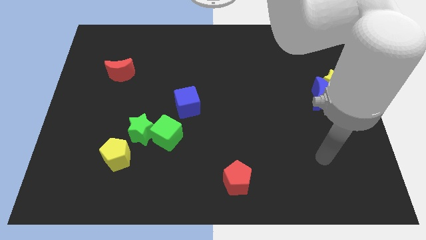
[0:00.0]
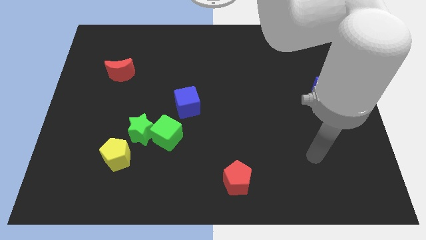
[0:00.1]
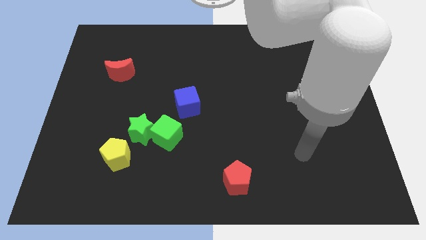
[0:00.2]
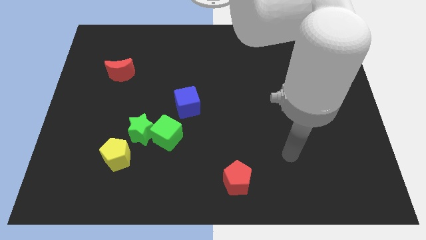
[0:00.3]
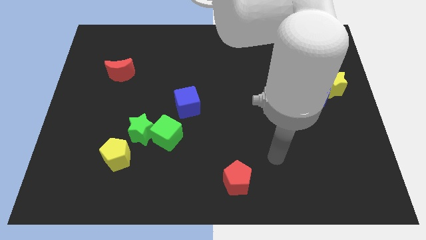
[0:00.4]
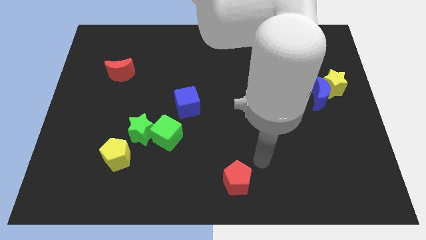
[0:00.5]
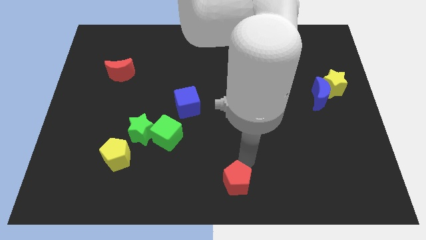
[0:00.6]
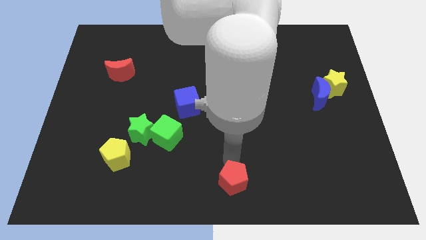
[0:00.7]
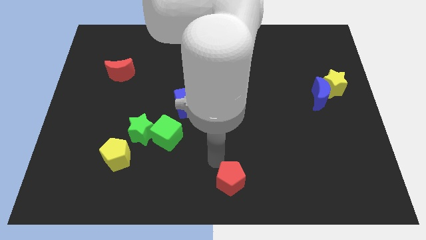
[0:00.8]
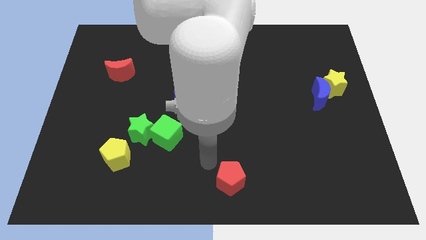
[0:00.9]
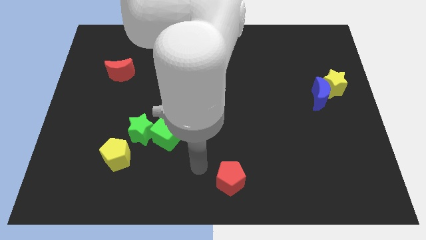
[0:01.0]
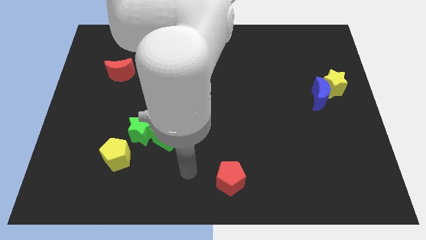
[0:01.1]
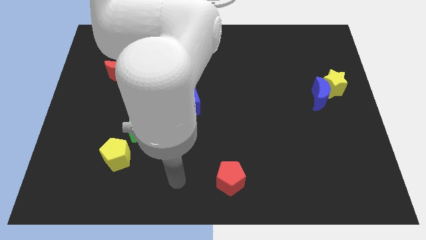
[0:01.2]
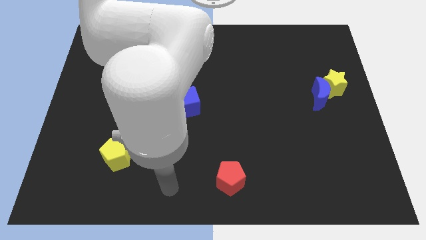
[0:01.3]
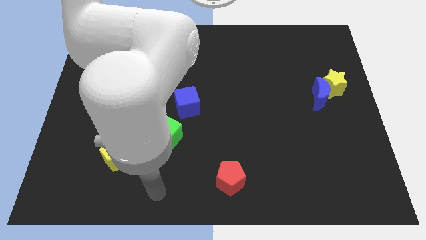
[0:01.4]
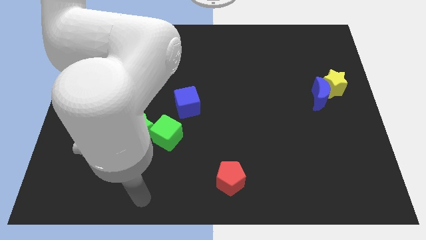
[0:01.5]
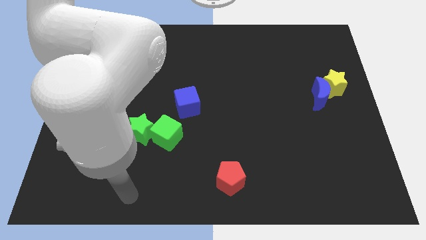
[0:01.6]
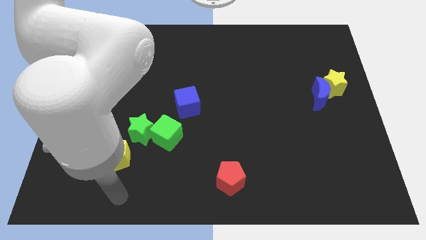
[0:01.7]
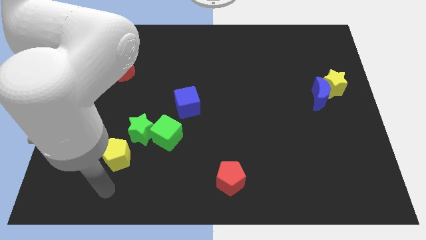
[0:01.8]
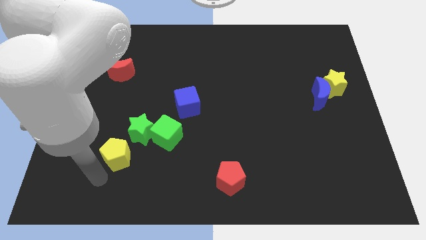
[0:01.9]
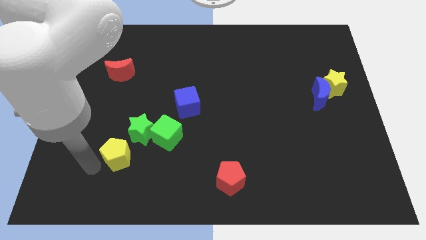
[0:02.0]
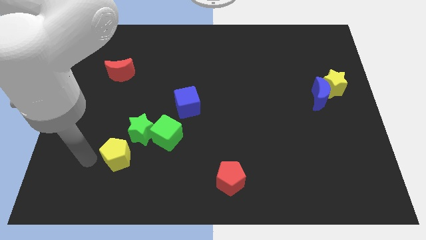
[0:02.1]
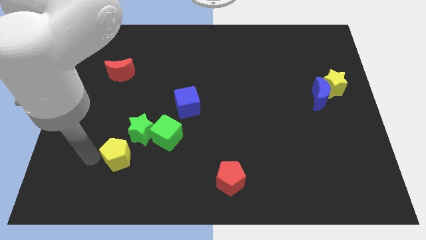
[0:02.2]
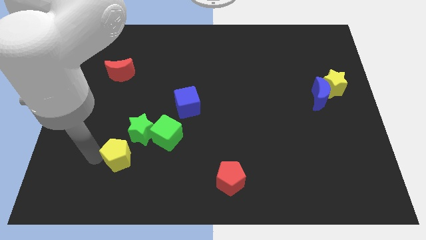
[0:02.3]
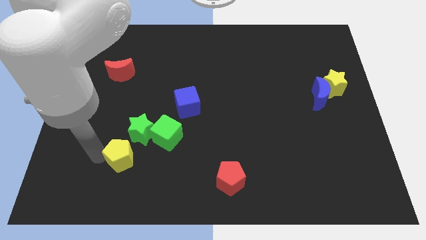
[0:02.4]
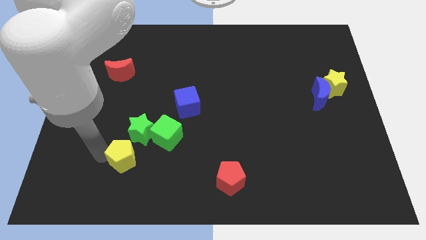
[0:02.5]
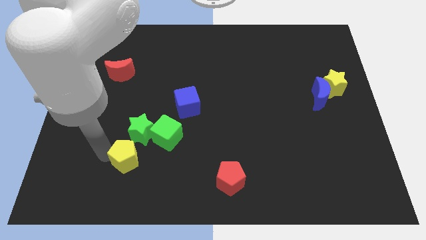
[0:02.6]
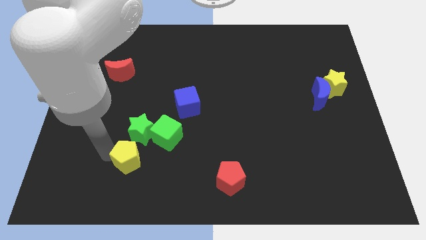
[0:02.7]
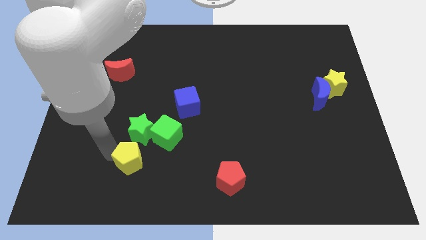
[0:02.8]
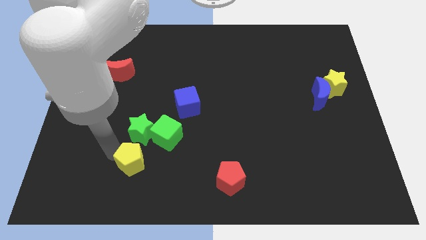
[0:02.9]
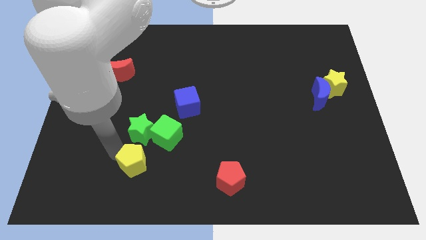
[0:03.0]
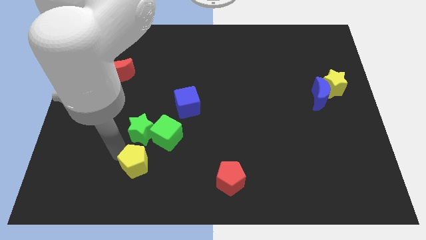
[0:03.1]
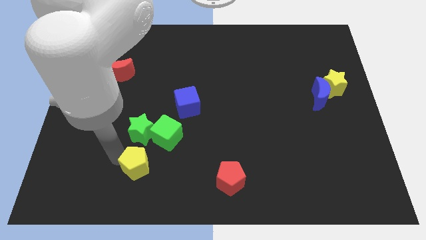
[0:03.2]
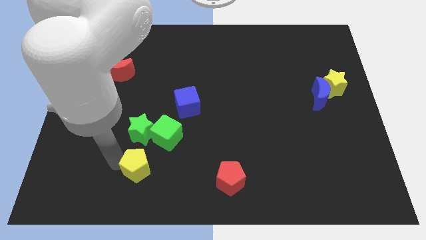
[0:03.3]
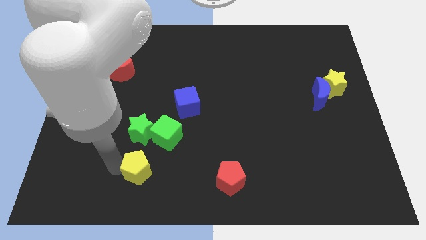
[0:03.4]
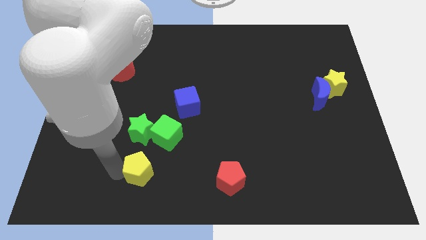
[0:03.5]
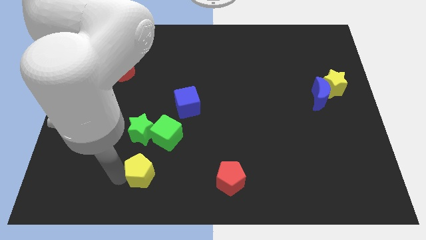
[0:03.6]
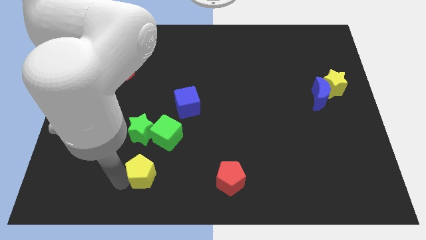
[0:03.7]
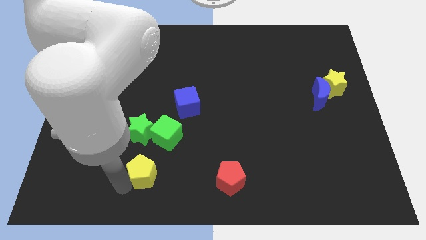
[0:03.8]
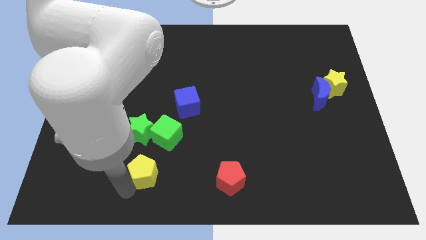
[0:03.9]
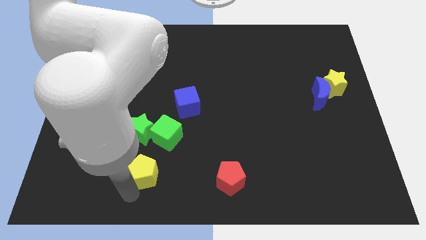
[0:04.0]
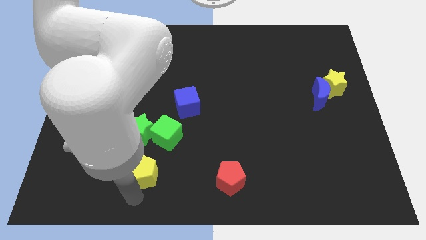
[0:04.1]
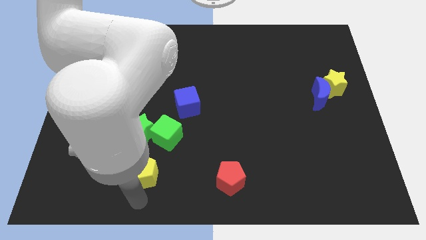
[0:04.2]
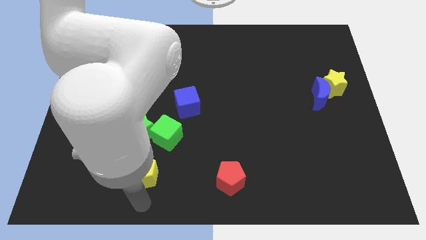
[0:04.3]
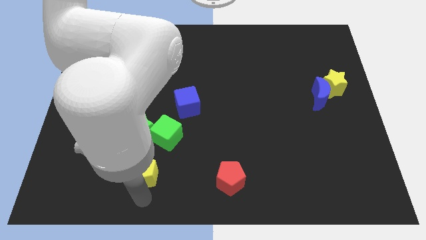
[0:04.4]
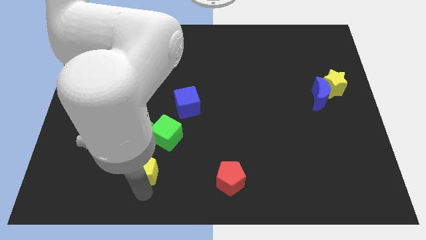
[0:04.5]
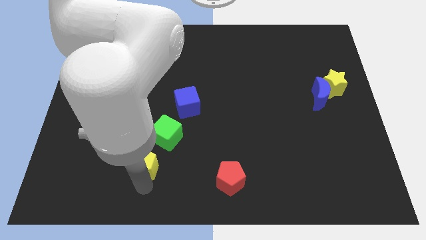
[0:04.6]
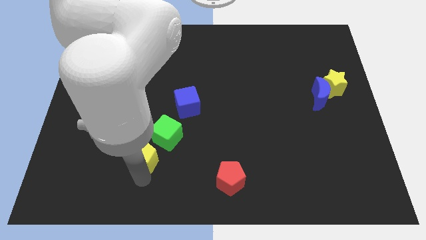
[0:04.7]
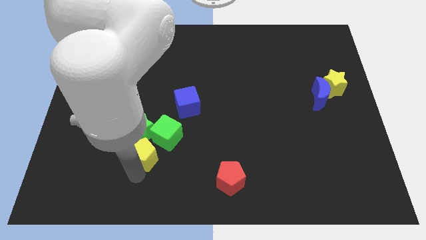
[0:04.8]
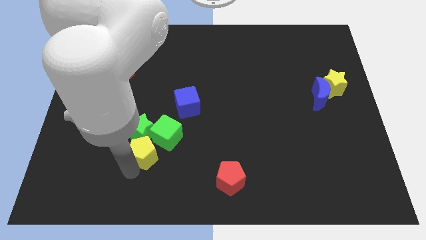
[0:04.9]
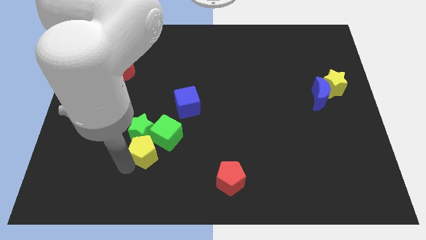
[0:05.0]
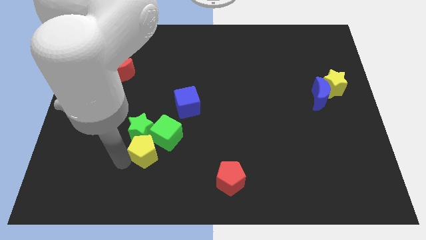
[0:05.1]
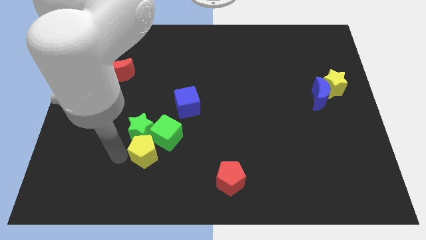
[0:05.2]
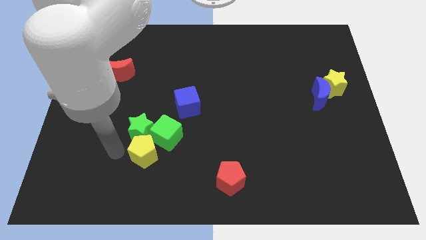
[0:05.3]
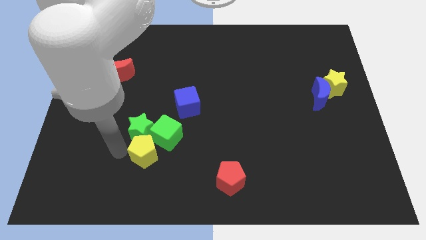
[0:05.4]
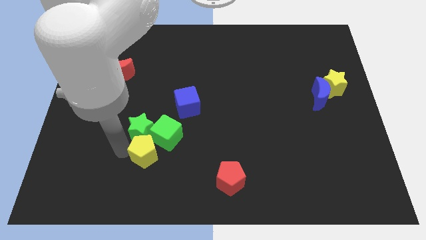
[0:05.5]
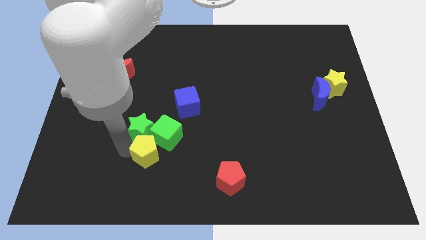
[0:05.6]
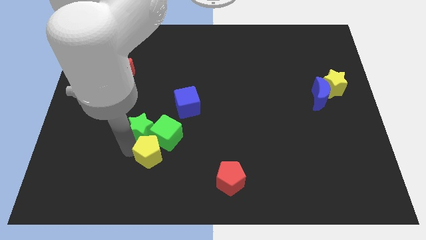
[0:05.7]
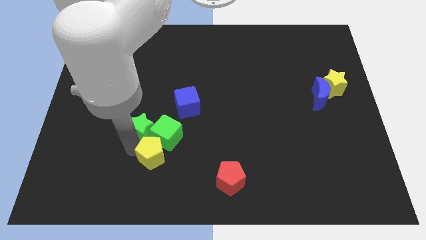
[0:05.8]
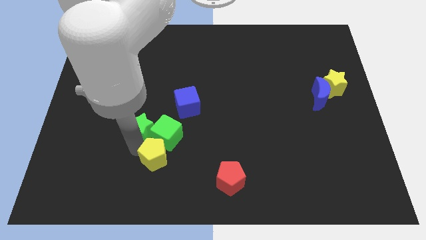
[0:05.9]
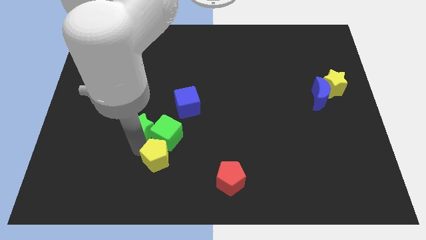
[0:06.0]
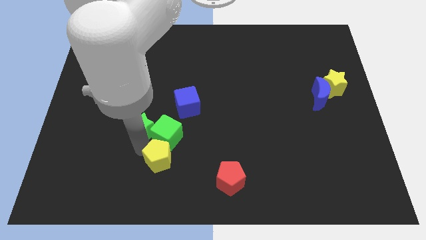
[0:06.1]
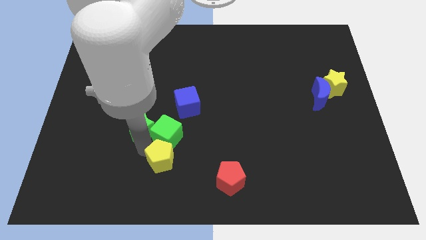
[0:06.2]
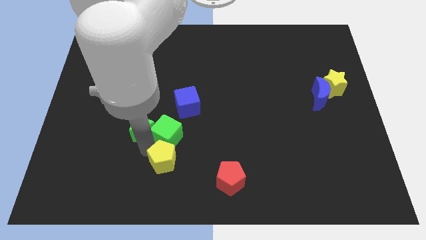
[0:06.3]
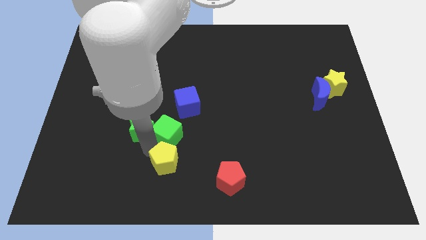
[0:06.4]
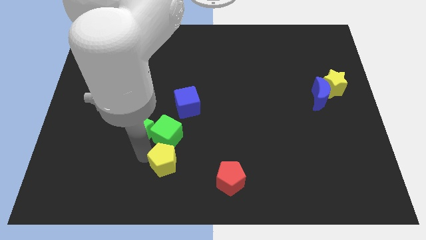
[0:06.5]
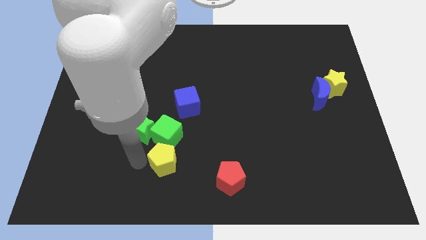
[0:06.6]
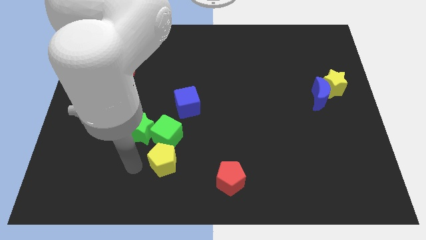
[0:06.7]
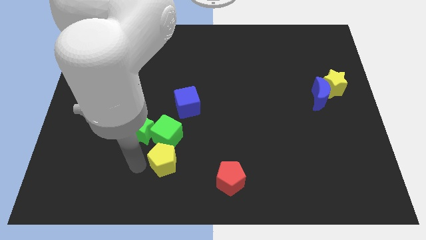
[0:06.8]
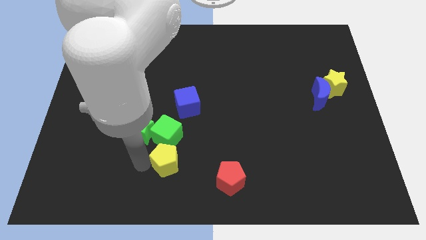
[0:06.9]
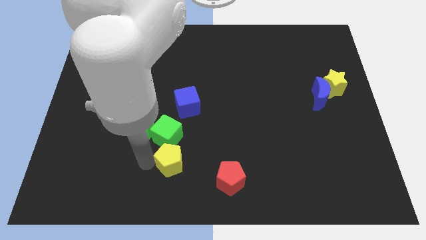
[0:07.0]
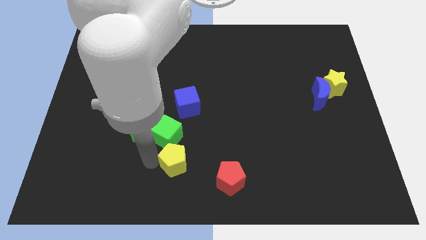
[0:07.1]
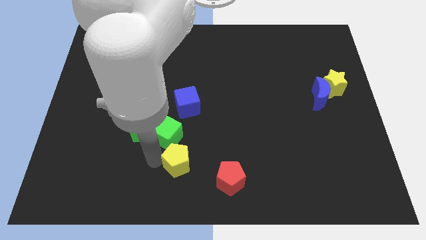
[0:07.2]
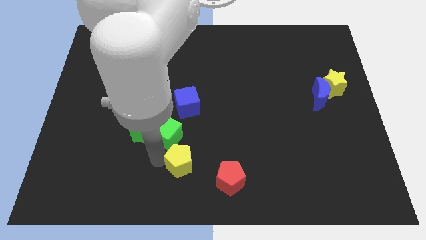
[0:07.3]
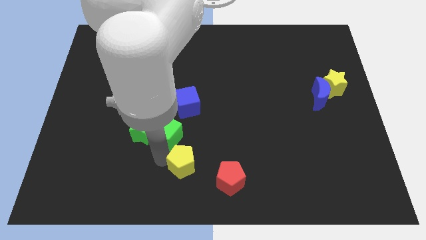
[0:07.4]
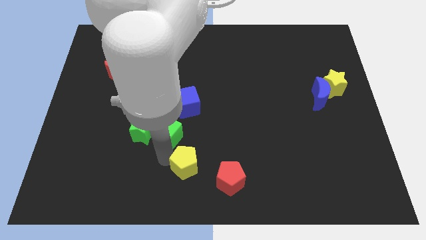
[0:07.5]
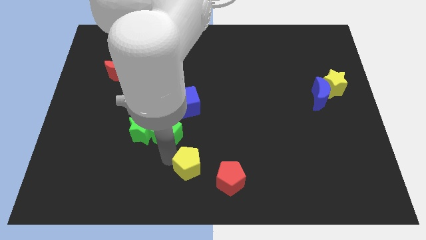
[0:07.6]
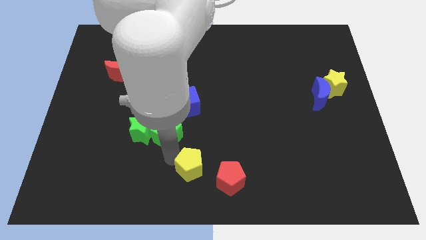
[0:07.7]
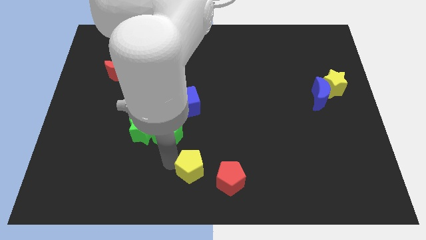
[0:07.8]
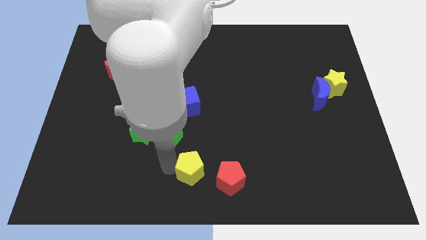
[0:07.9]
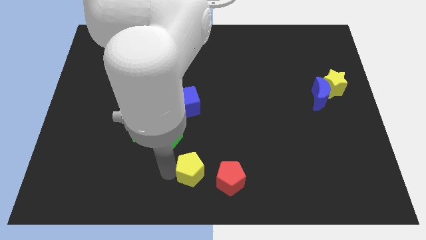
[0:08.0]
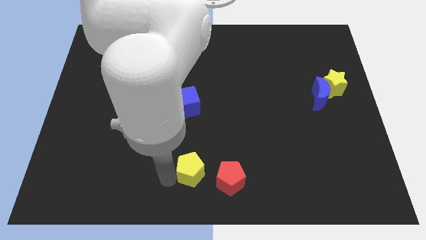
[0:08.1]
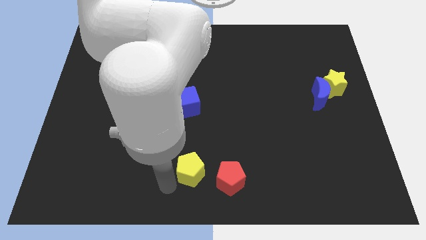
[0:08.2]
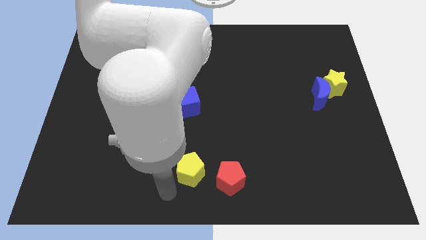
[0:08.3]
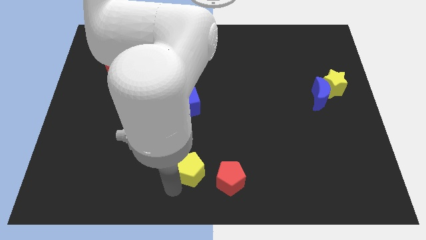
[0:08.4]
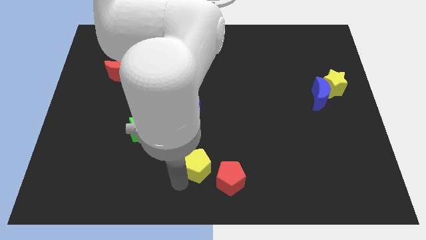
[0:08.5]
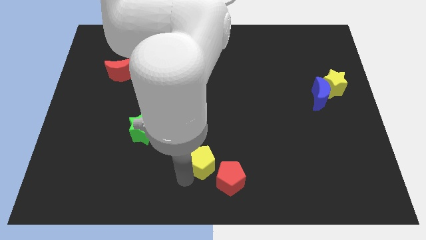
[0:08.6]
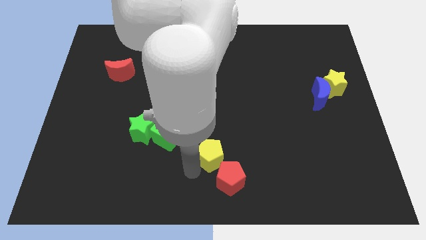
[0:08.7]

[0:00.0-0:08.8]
push the yellow pentagon right
